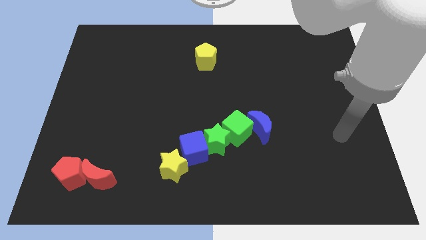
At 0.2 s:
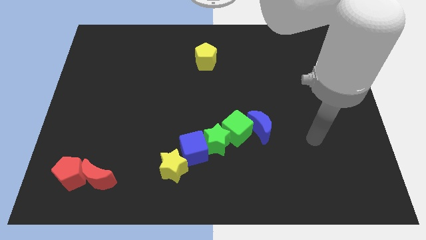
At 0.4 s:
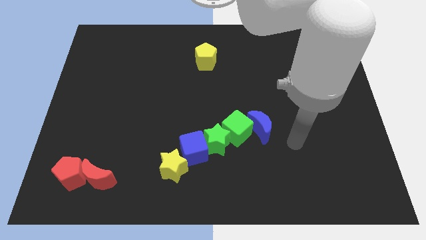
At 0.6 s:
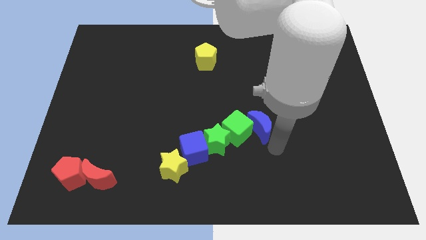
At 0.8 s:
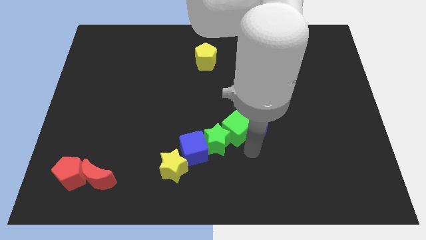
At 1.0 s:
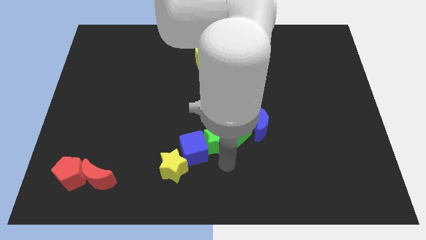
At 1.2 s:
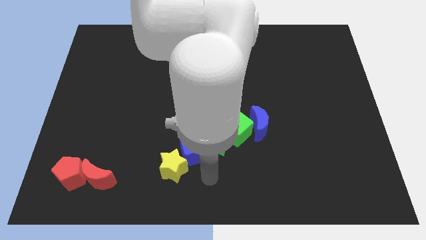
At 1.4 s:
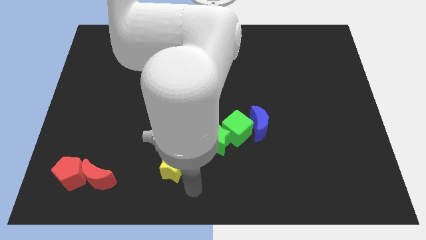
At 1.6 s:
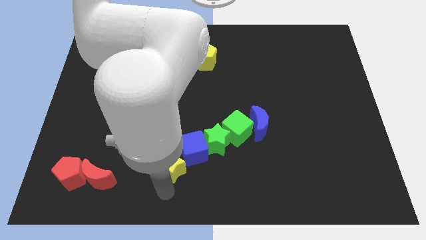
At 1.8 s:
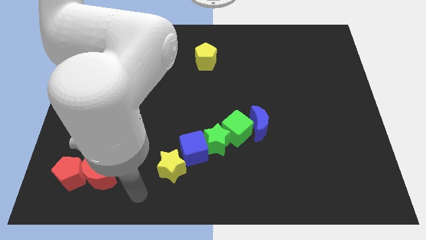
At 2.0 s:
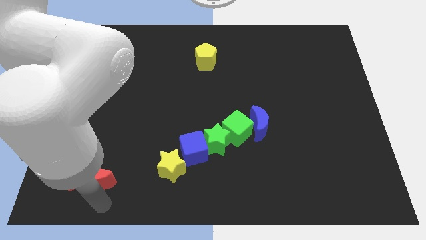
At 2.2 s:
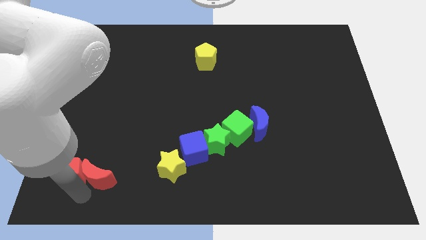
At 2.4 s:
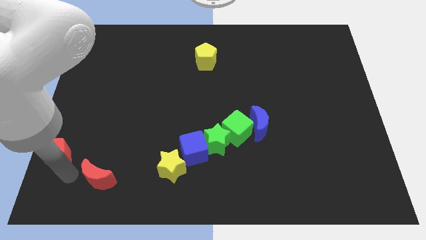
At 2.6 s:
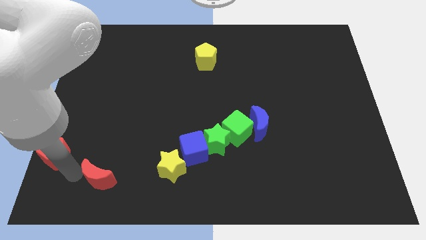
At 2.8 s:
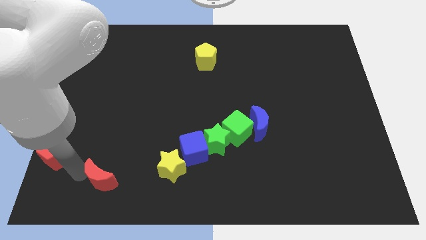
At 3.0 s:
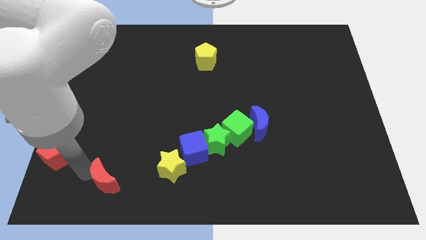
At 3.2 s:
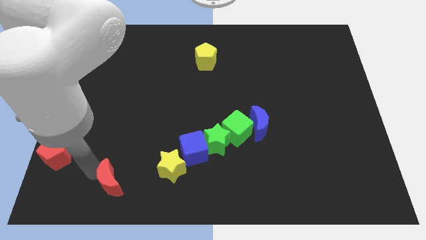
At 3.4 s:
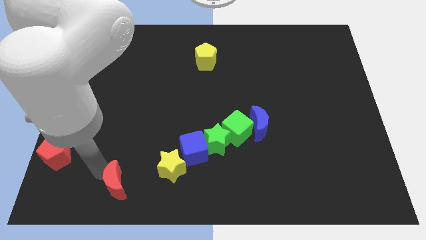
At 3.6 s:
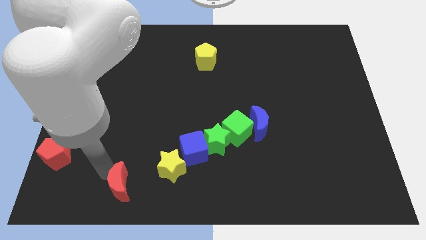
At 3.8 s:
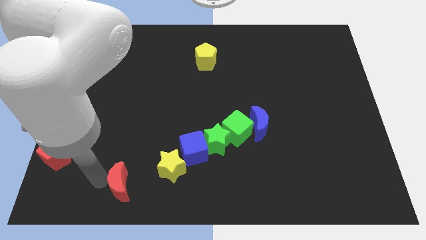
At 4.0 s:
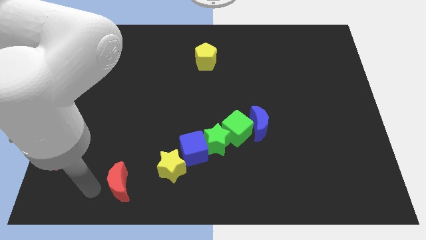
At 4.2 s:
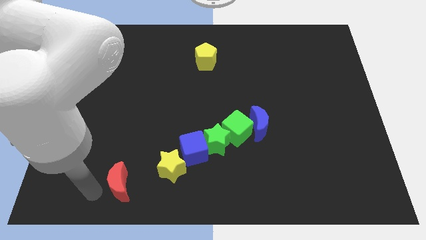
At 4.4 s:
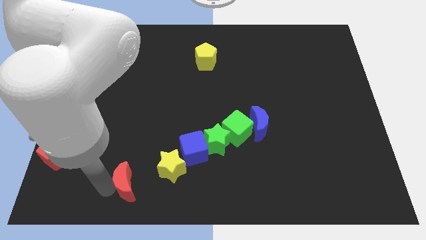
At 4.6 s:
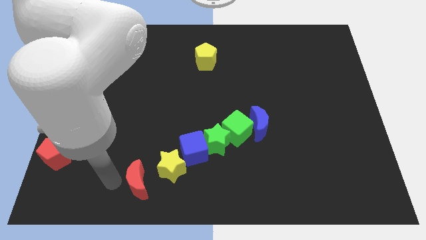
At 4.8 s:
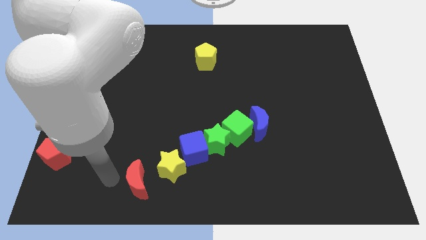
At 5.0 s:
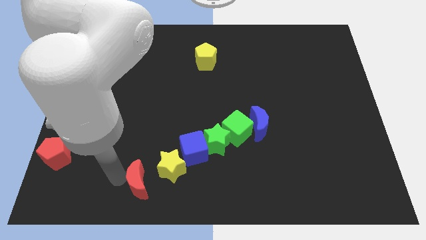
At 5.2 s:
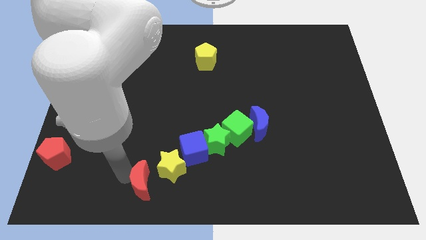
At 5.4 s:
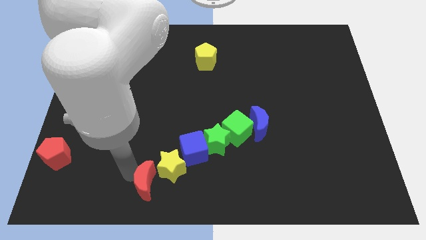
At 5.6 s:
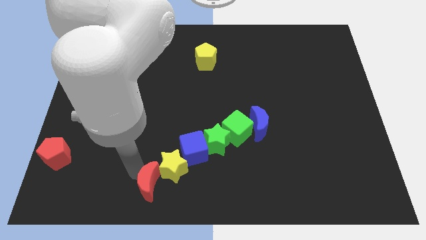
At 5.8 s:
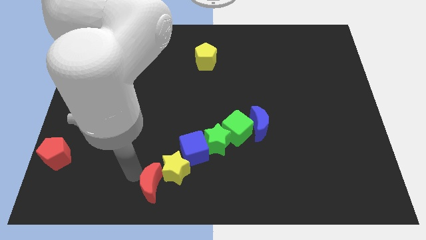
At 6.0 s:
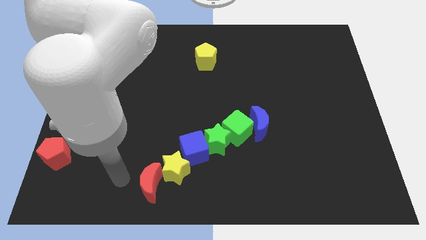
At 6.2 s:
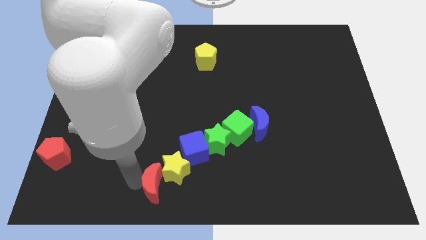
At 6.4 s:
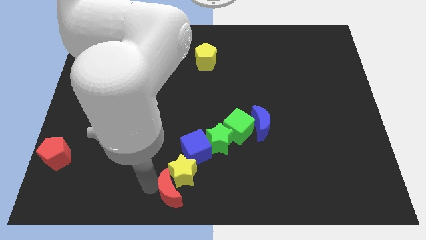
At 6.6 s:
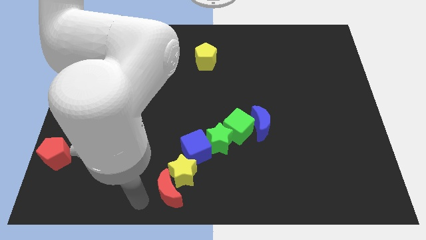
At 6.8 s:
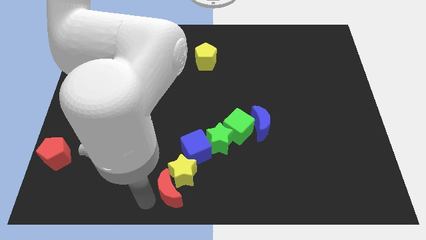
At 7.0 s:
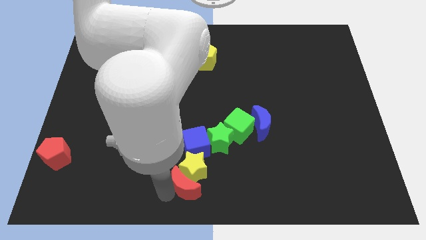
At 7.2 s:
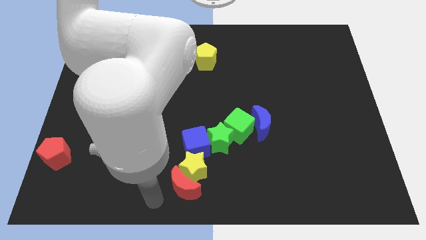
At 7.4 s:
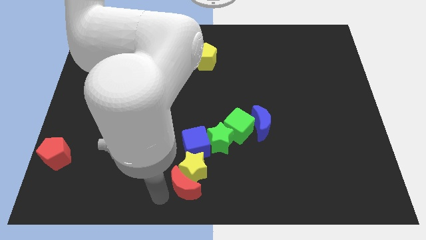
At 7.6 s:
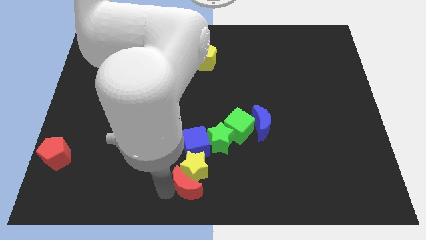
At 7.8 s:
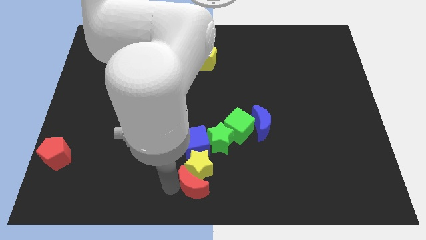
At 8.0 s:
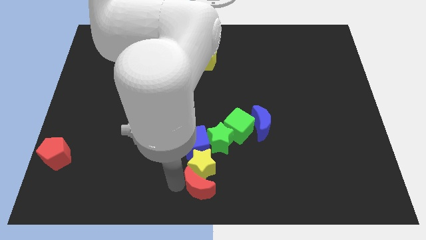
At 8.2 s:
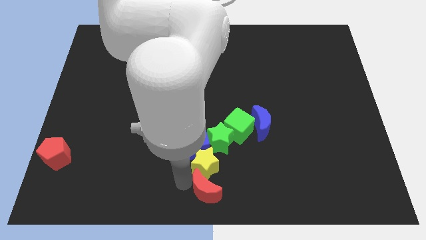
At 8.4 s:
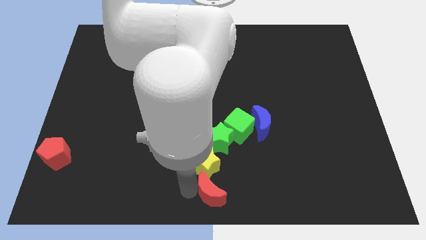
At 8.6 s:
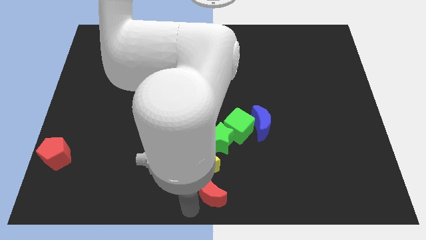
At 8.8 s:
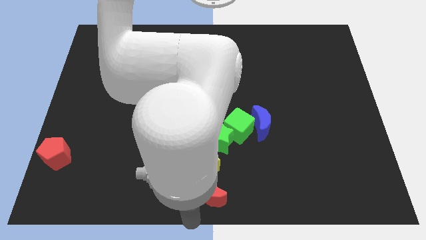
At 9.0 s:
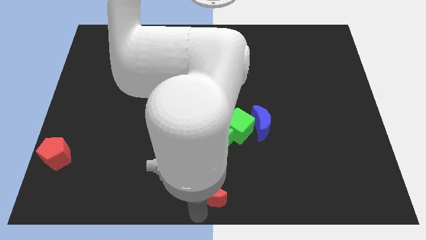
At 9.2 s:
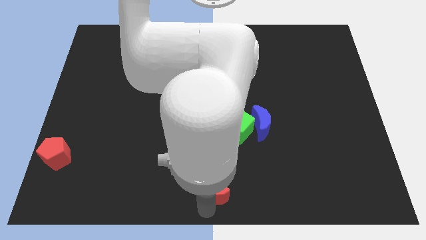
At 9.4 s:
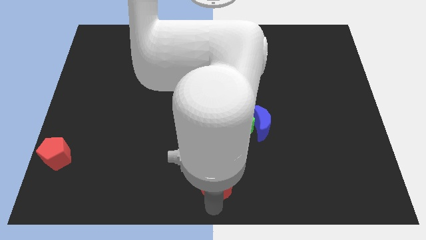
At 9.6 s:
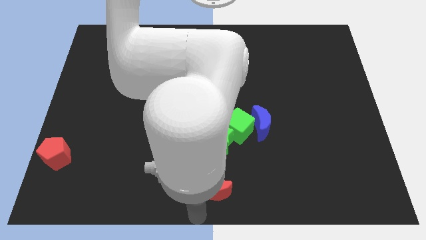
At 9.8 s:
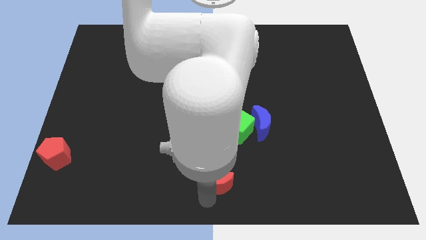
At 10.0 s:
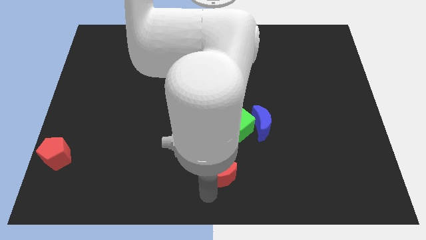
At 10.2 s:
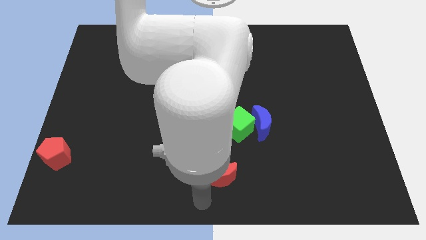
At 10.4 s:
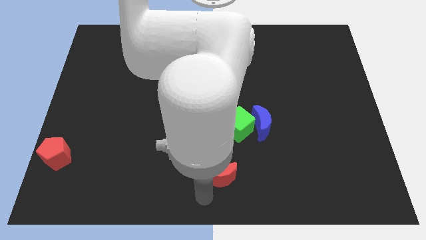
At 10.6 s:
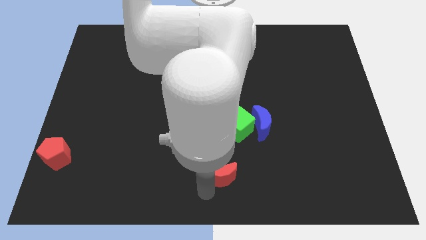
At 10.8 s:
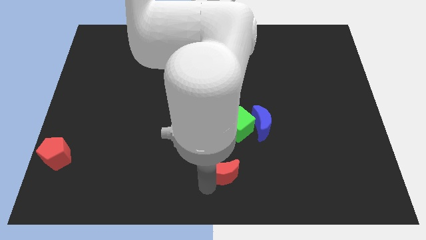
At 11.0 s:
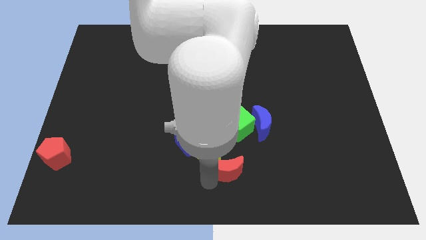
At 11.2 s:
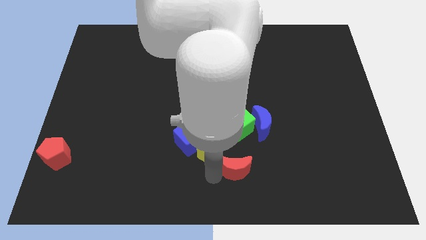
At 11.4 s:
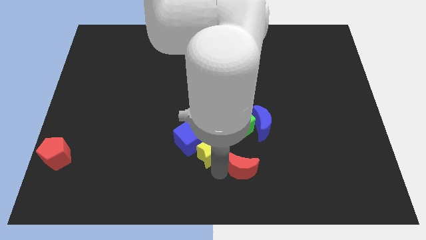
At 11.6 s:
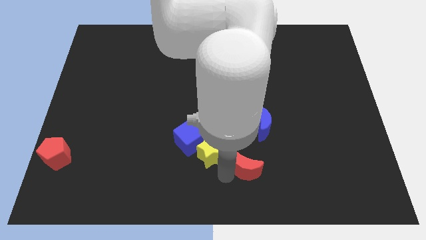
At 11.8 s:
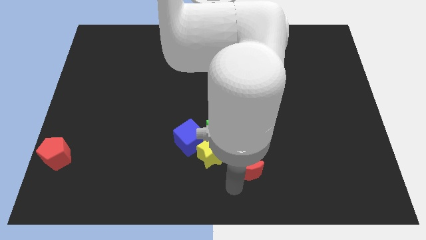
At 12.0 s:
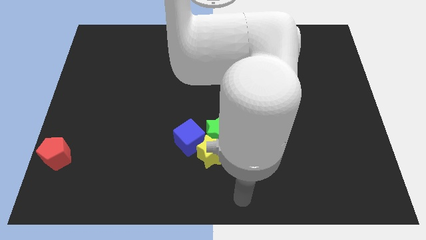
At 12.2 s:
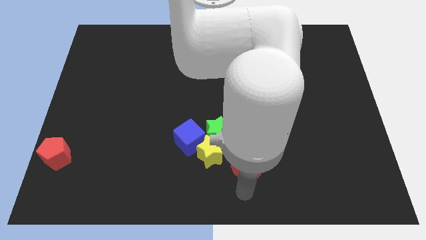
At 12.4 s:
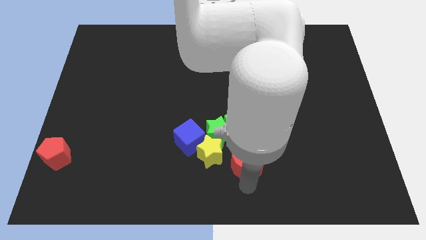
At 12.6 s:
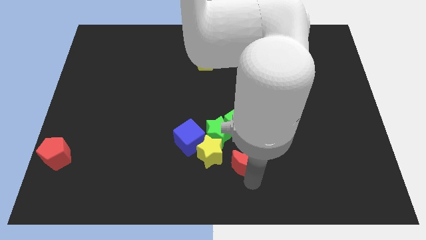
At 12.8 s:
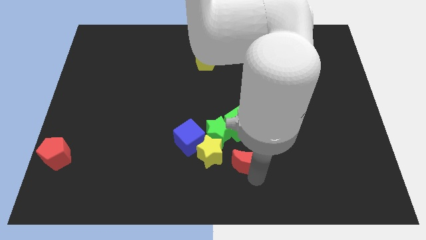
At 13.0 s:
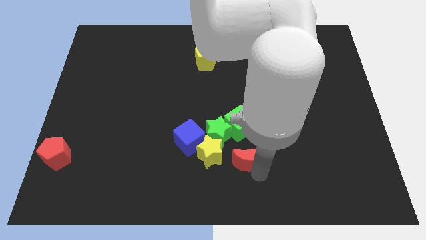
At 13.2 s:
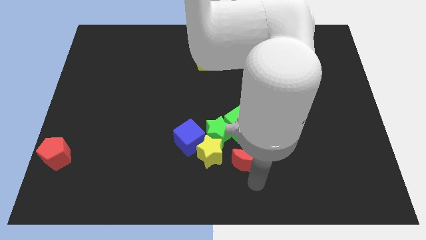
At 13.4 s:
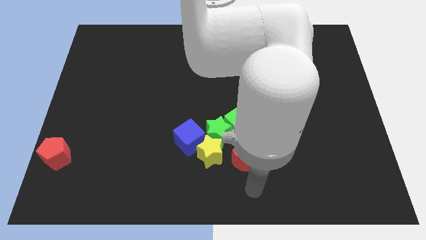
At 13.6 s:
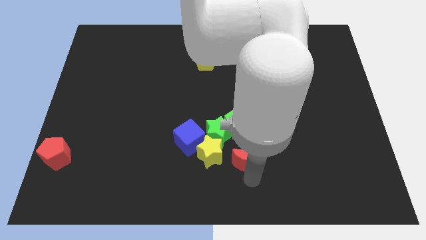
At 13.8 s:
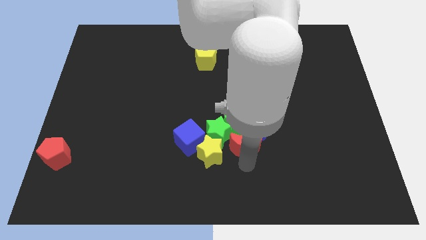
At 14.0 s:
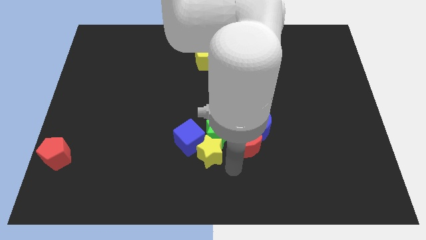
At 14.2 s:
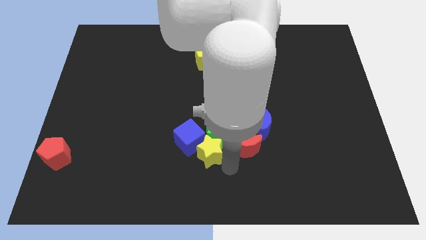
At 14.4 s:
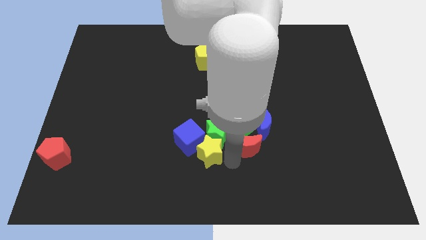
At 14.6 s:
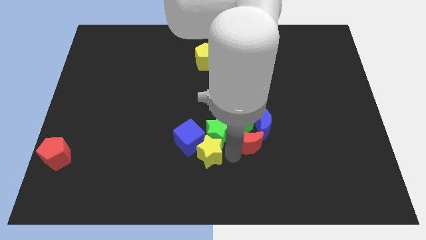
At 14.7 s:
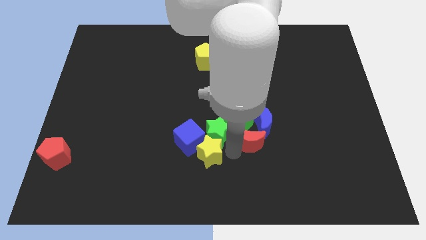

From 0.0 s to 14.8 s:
put the red moon next to the blue moon
